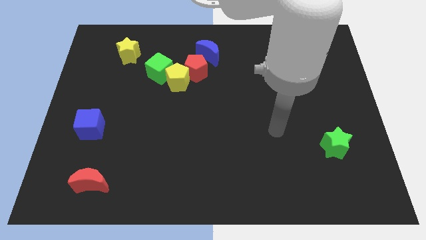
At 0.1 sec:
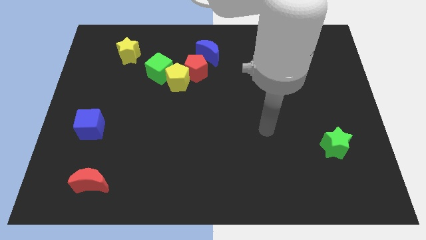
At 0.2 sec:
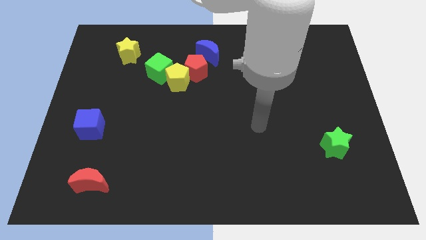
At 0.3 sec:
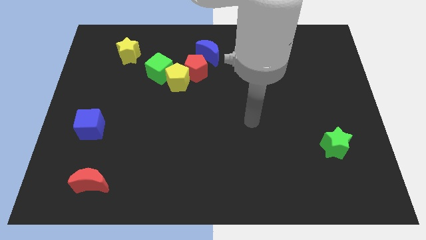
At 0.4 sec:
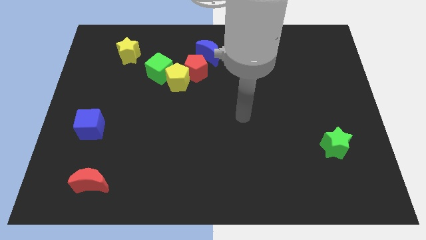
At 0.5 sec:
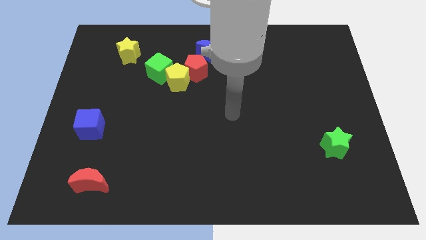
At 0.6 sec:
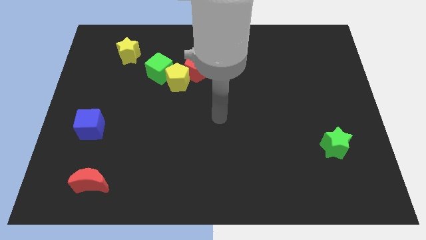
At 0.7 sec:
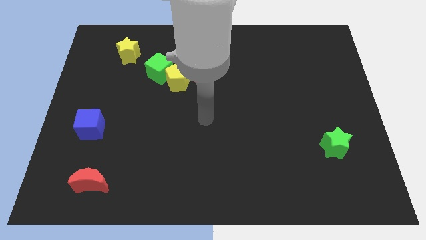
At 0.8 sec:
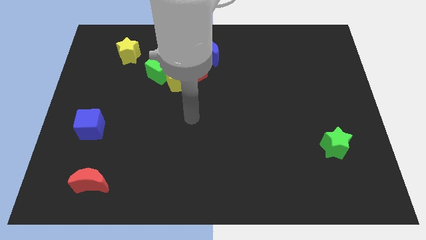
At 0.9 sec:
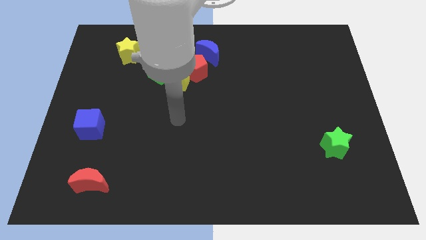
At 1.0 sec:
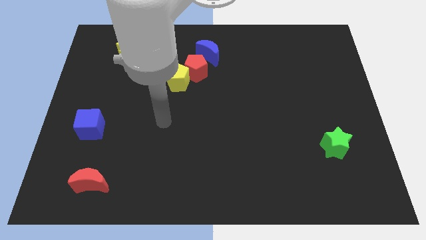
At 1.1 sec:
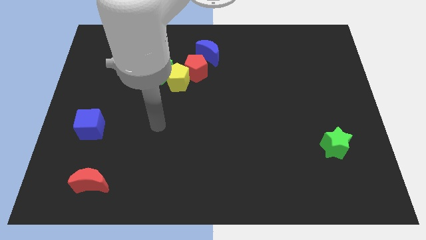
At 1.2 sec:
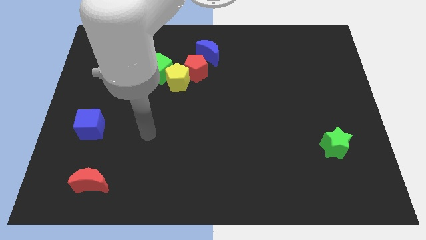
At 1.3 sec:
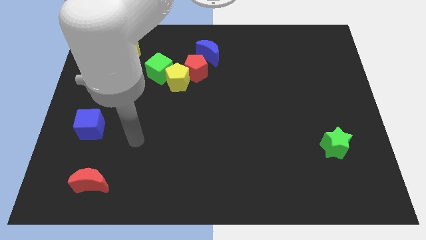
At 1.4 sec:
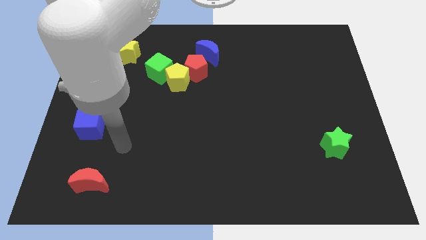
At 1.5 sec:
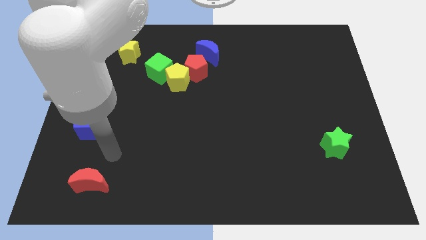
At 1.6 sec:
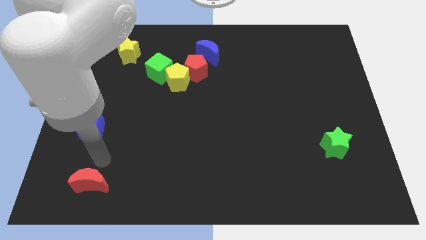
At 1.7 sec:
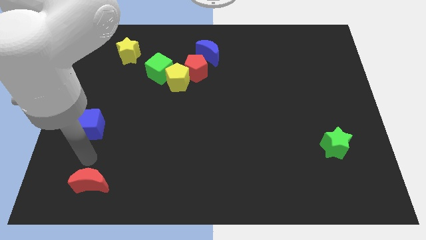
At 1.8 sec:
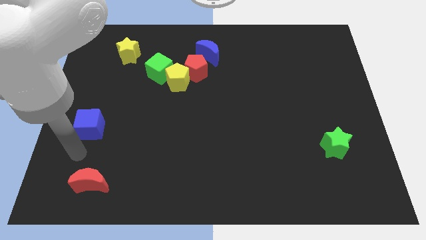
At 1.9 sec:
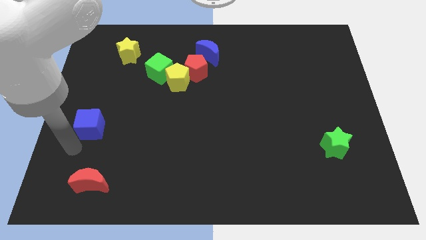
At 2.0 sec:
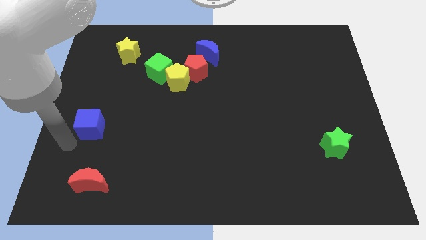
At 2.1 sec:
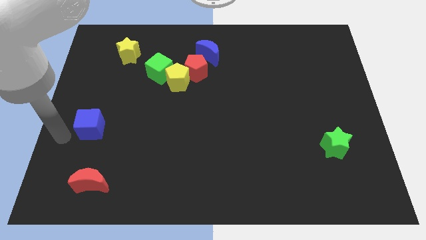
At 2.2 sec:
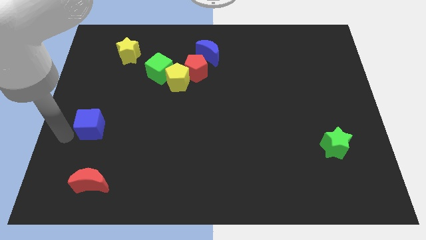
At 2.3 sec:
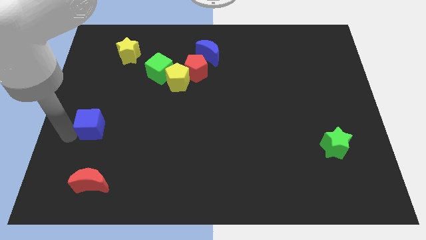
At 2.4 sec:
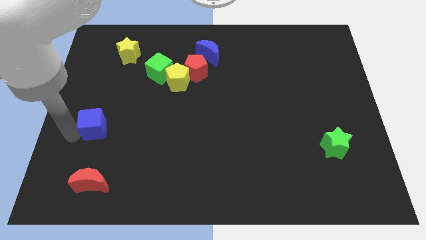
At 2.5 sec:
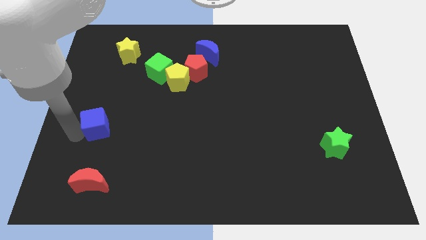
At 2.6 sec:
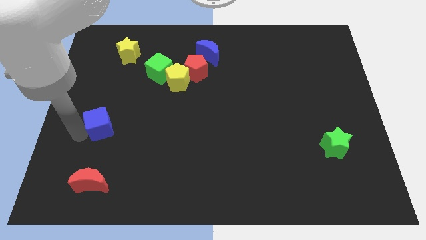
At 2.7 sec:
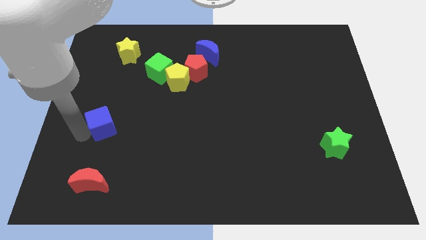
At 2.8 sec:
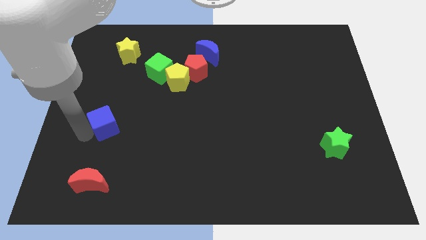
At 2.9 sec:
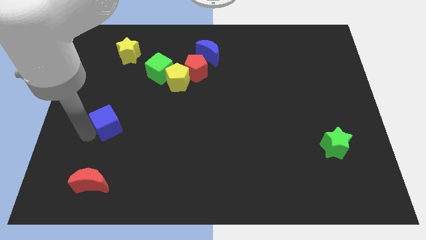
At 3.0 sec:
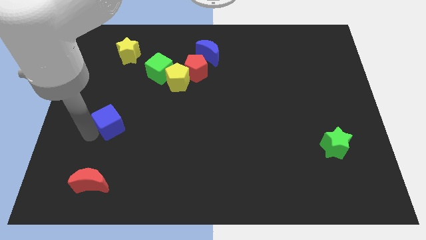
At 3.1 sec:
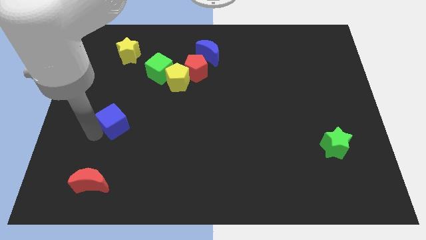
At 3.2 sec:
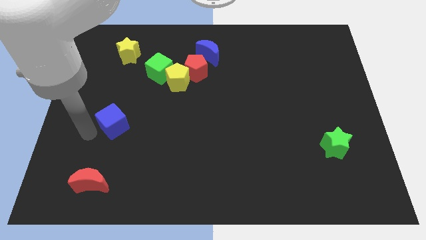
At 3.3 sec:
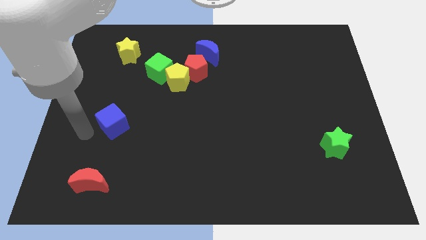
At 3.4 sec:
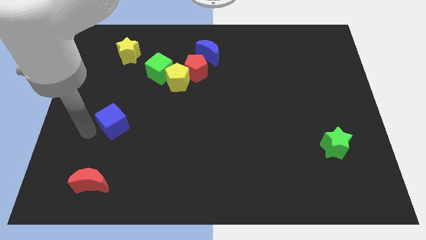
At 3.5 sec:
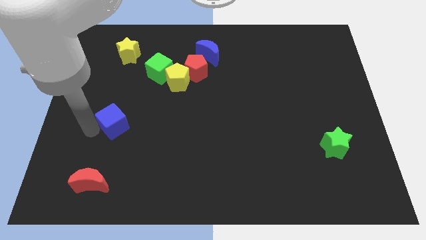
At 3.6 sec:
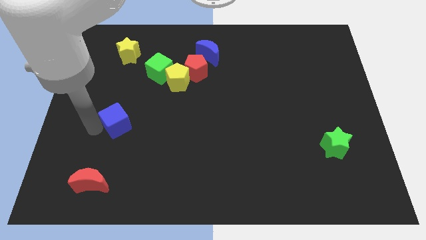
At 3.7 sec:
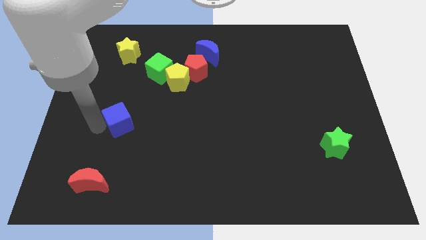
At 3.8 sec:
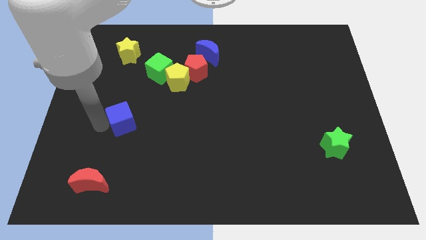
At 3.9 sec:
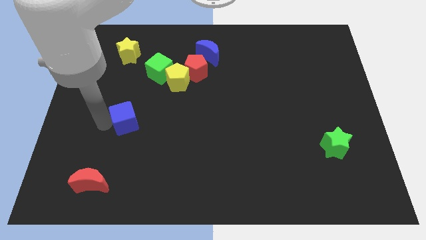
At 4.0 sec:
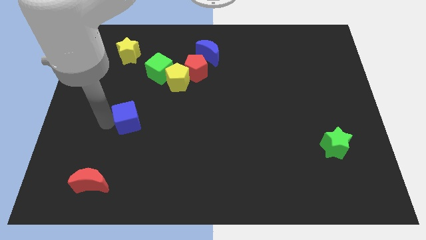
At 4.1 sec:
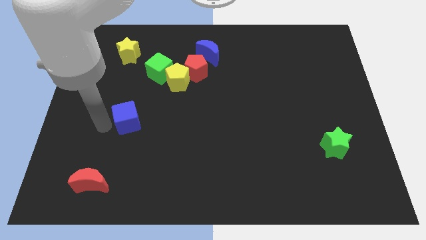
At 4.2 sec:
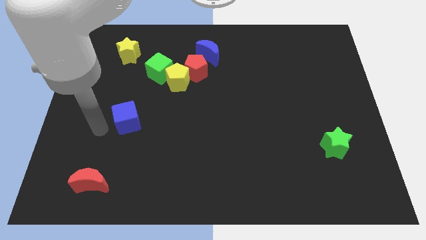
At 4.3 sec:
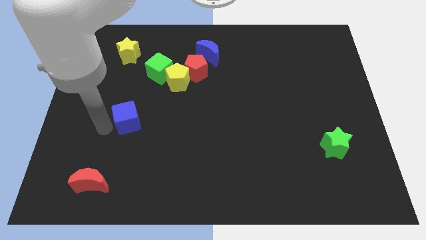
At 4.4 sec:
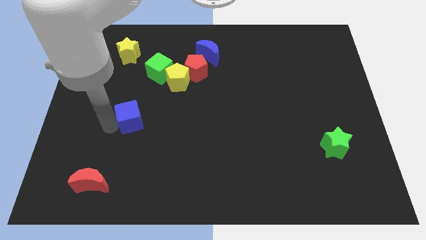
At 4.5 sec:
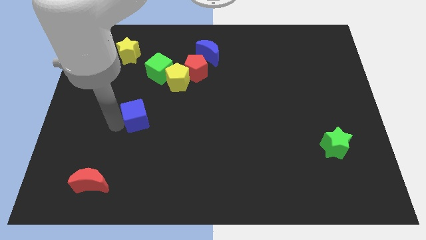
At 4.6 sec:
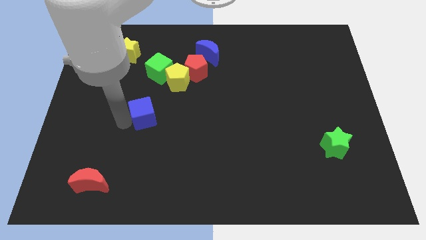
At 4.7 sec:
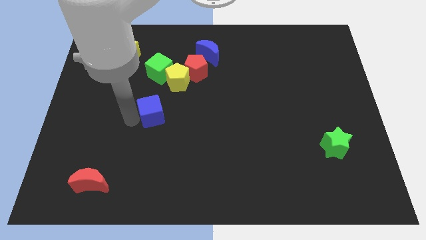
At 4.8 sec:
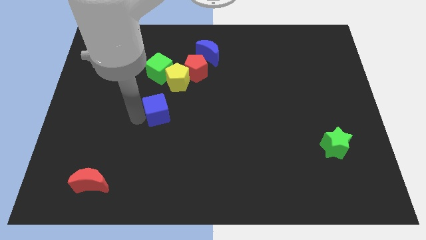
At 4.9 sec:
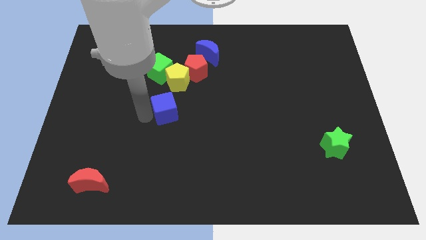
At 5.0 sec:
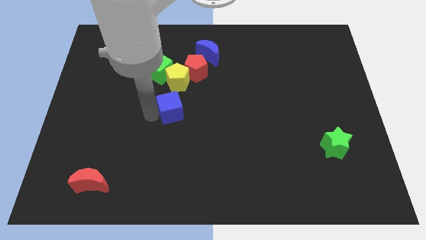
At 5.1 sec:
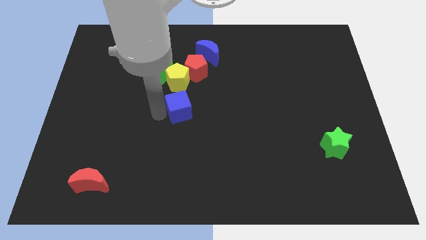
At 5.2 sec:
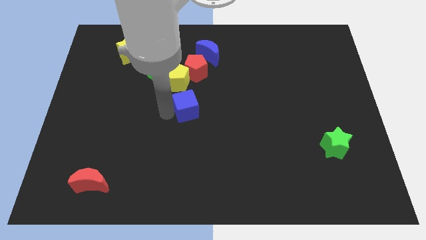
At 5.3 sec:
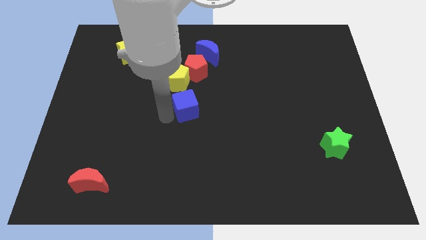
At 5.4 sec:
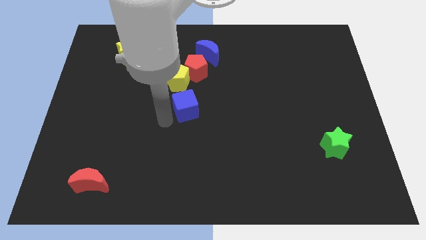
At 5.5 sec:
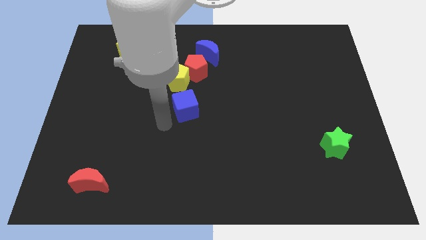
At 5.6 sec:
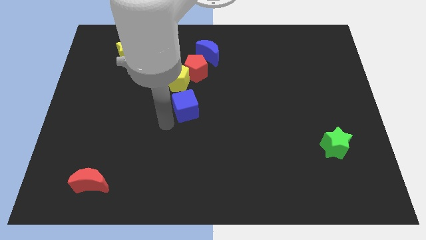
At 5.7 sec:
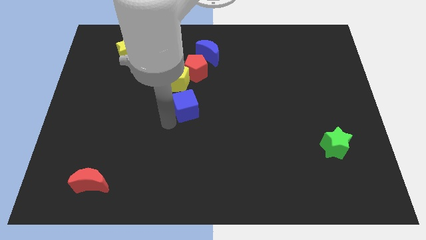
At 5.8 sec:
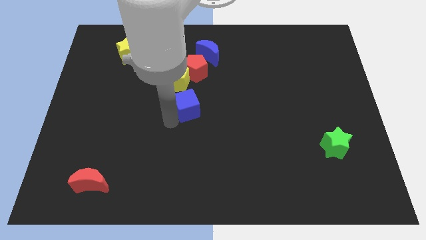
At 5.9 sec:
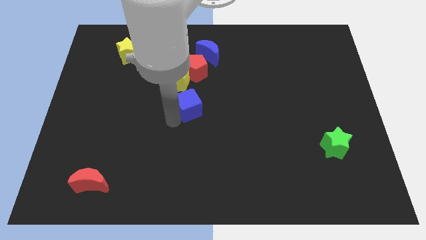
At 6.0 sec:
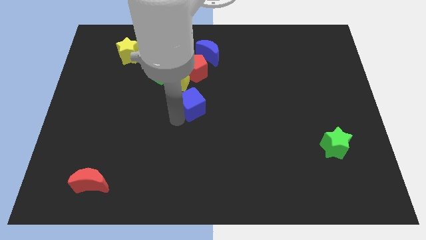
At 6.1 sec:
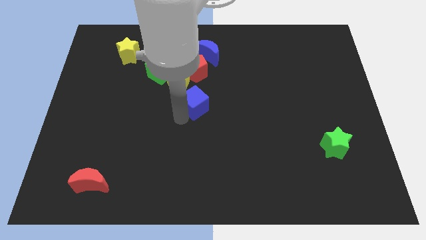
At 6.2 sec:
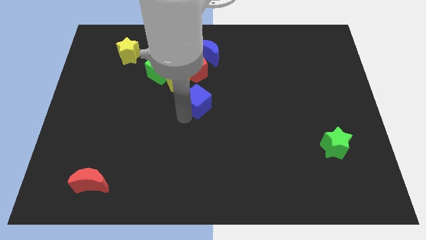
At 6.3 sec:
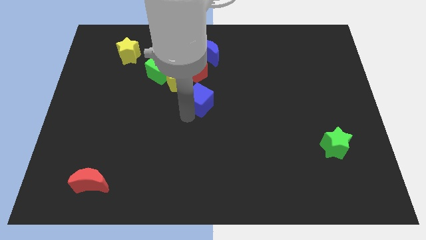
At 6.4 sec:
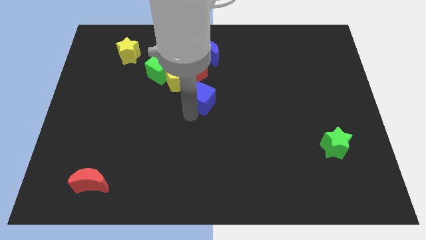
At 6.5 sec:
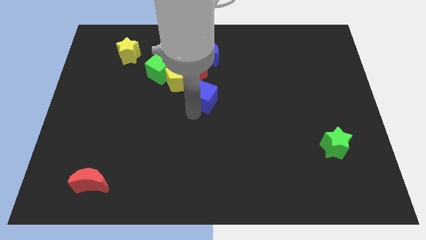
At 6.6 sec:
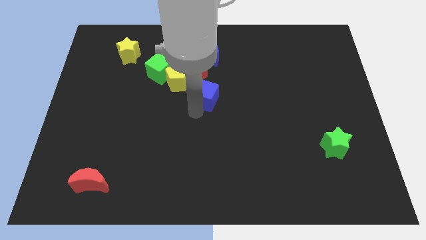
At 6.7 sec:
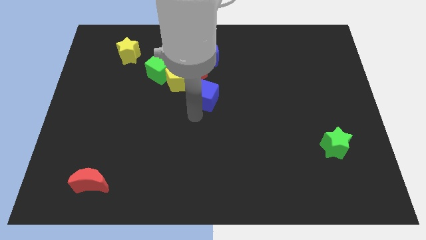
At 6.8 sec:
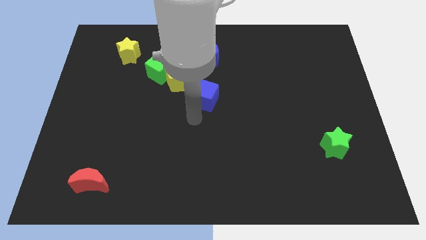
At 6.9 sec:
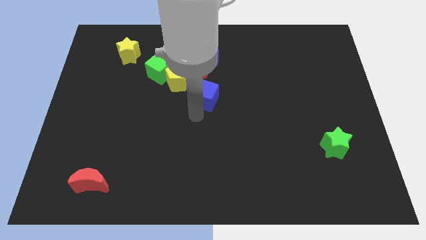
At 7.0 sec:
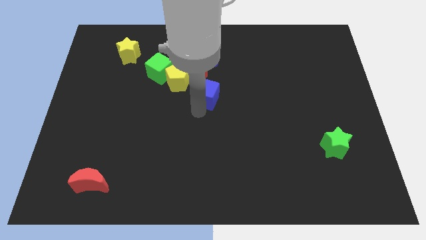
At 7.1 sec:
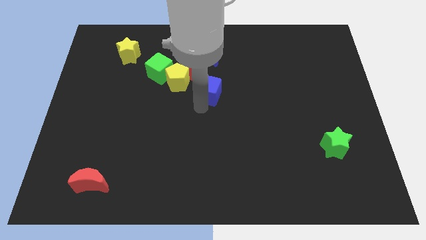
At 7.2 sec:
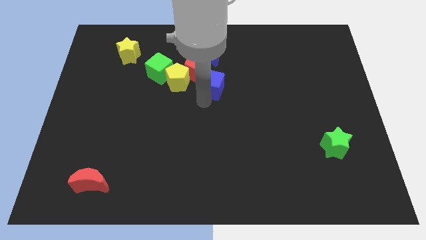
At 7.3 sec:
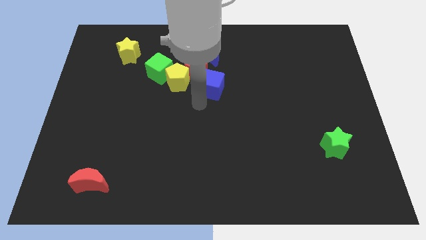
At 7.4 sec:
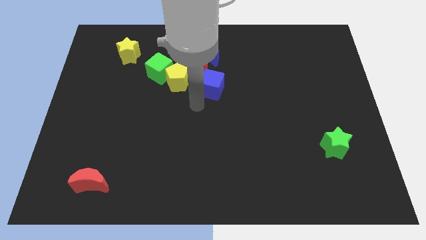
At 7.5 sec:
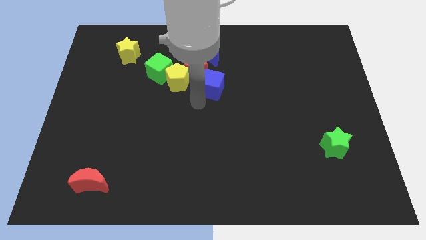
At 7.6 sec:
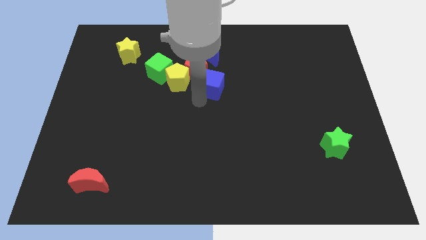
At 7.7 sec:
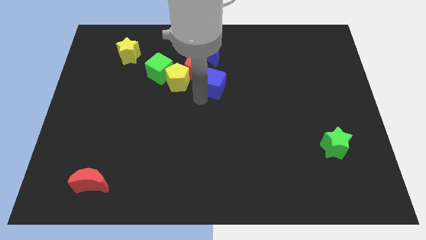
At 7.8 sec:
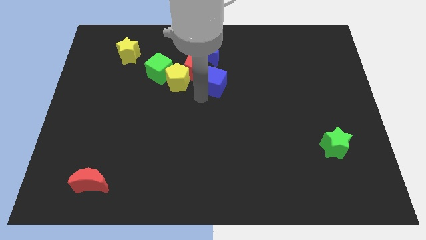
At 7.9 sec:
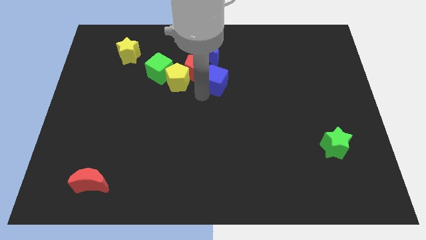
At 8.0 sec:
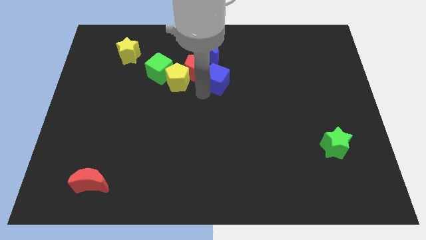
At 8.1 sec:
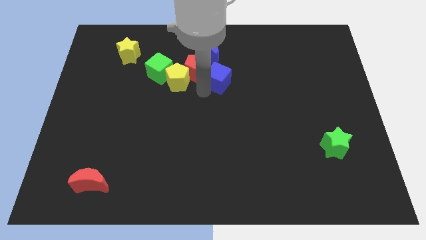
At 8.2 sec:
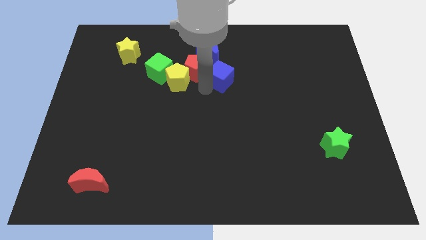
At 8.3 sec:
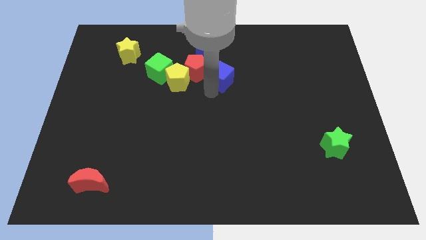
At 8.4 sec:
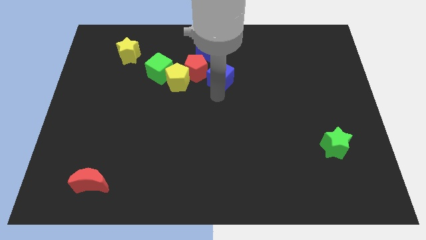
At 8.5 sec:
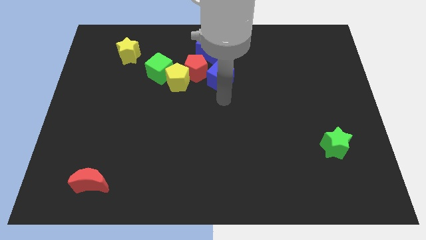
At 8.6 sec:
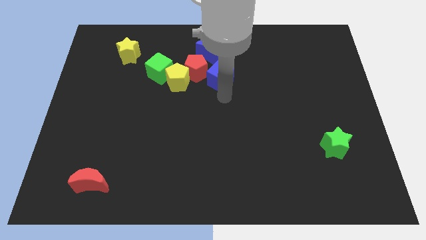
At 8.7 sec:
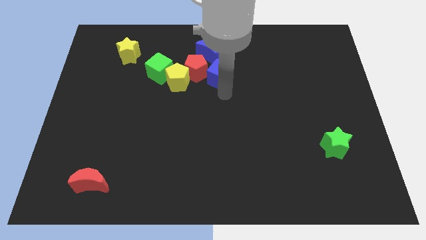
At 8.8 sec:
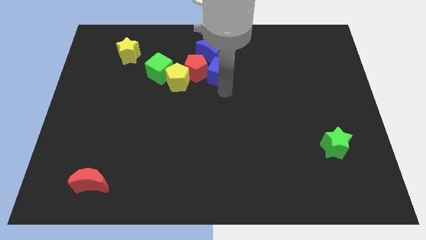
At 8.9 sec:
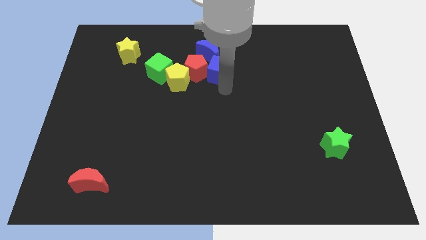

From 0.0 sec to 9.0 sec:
slide the blue cube to the top right of the red pentagon
